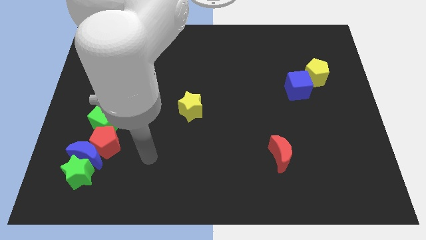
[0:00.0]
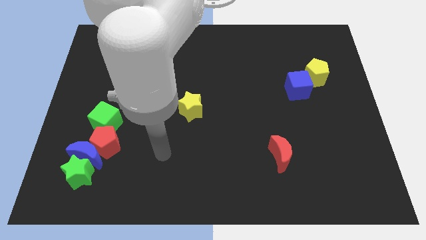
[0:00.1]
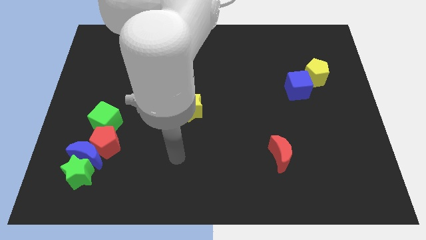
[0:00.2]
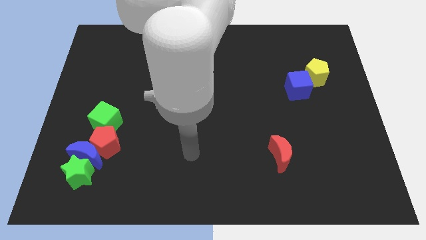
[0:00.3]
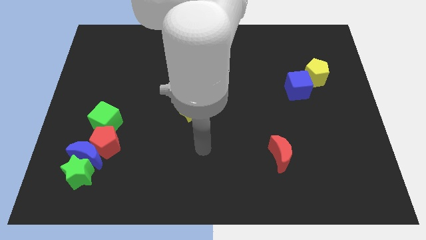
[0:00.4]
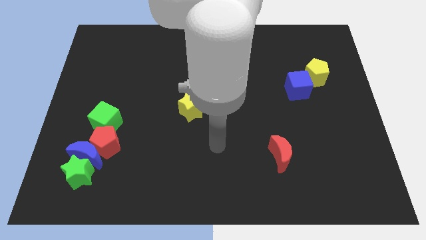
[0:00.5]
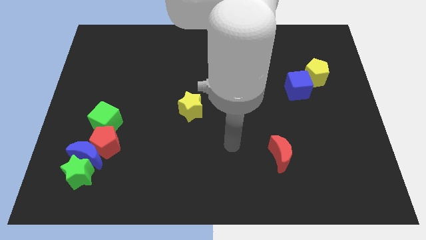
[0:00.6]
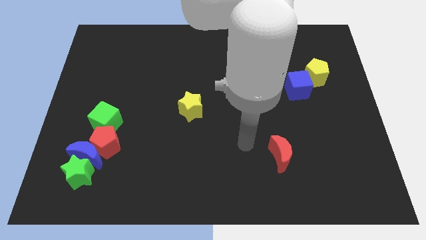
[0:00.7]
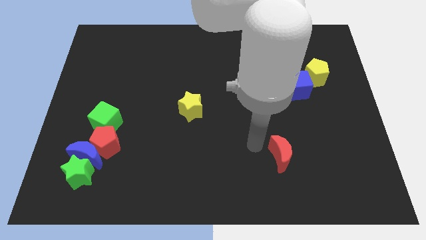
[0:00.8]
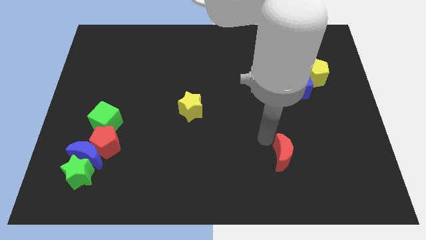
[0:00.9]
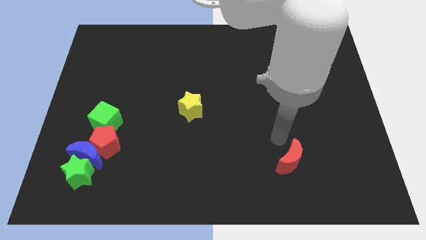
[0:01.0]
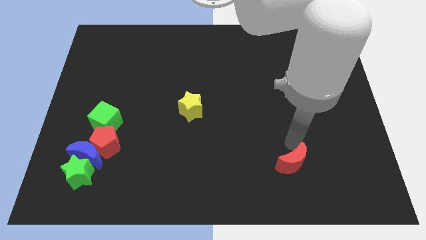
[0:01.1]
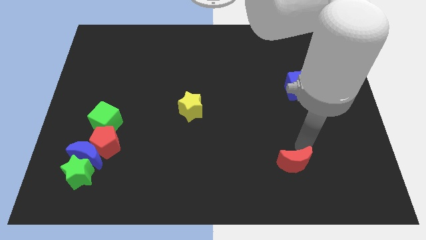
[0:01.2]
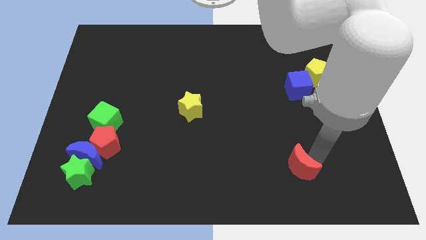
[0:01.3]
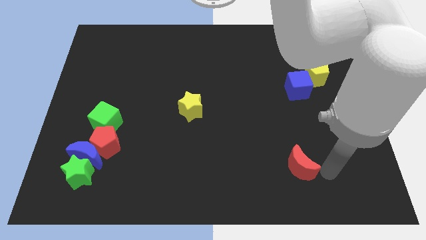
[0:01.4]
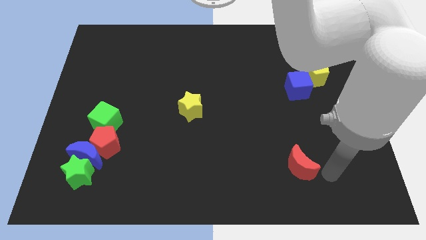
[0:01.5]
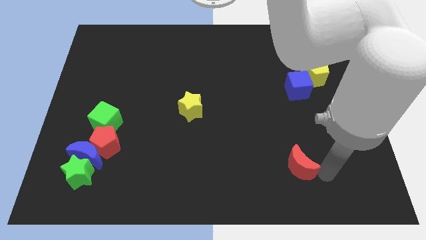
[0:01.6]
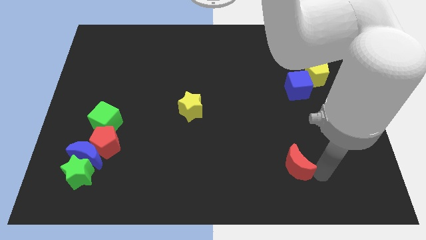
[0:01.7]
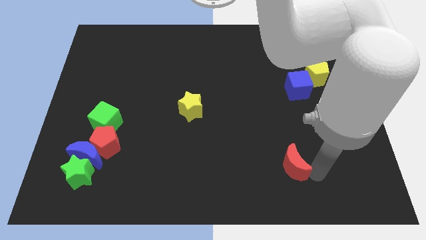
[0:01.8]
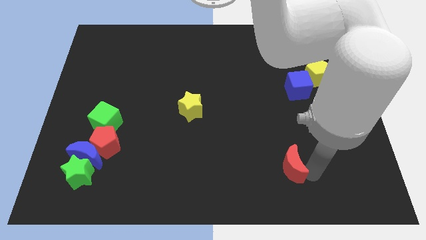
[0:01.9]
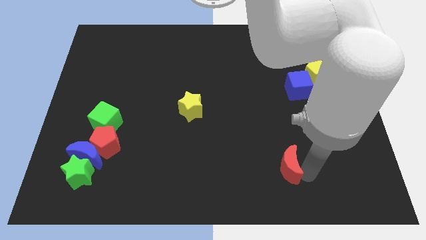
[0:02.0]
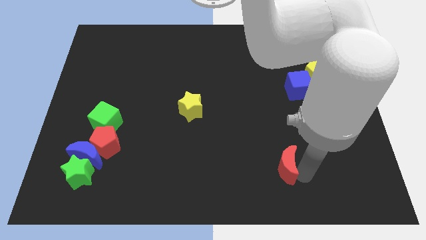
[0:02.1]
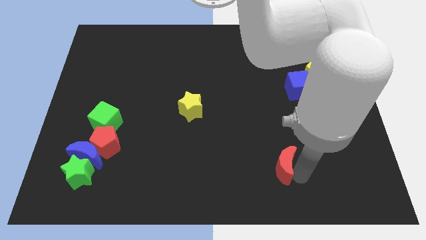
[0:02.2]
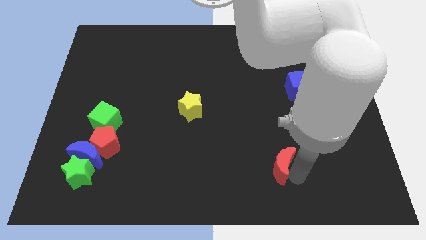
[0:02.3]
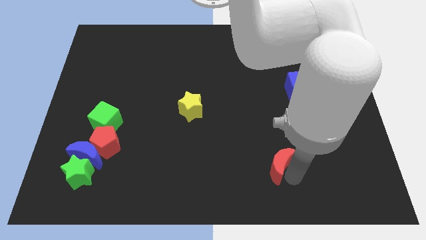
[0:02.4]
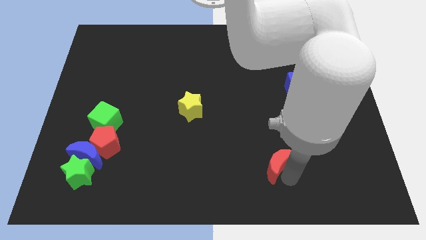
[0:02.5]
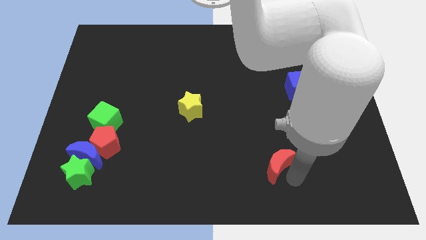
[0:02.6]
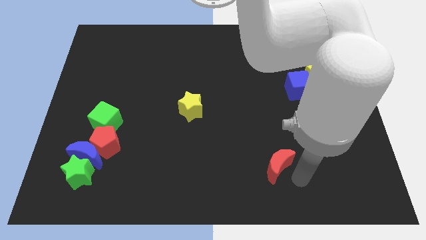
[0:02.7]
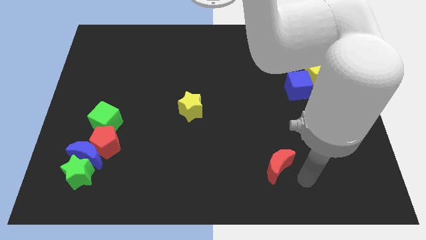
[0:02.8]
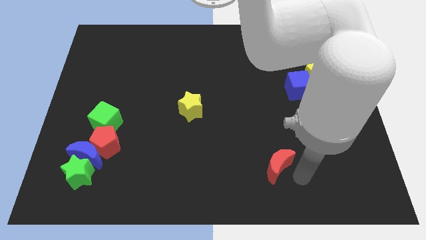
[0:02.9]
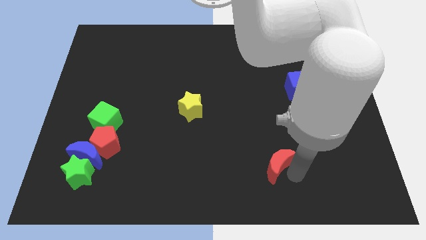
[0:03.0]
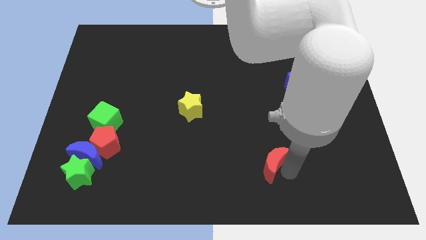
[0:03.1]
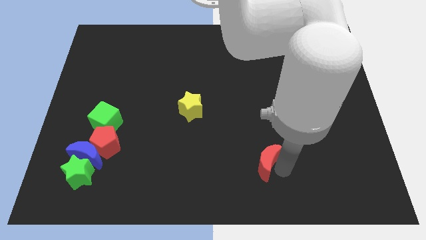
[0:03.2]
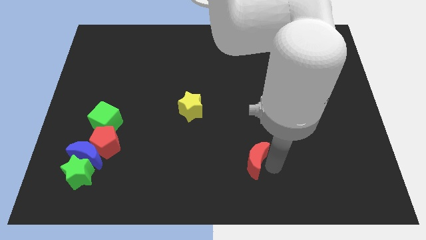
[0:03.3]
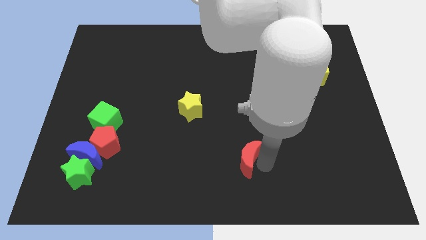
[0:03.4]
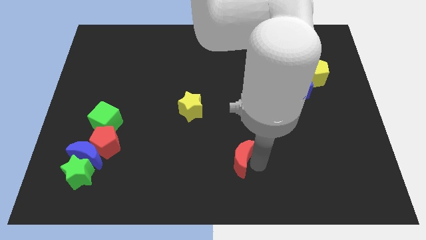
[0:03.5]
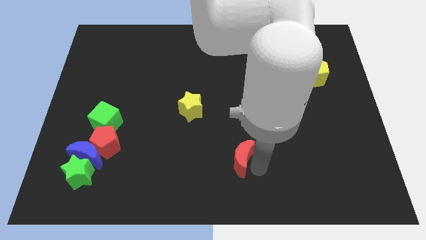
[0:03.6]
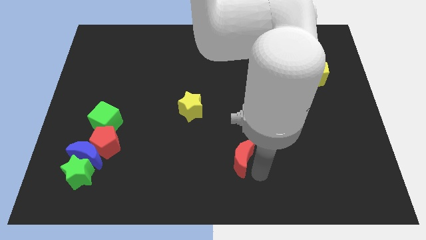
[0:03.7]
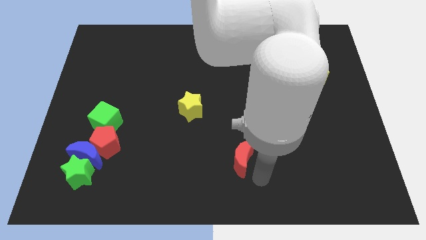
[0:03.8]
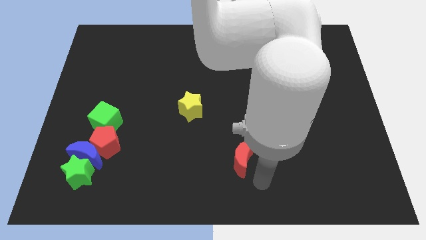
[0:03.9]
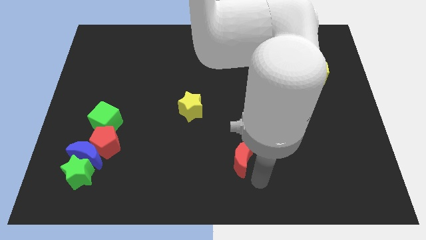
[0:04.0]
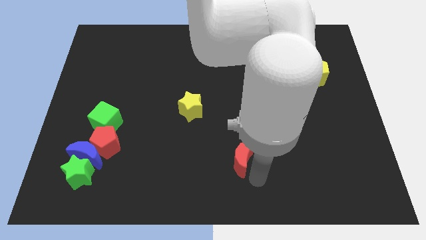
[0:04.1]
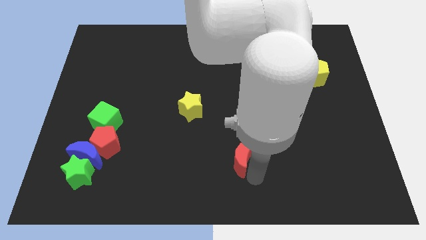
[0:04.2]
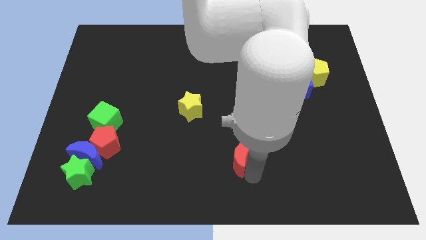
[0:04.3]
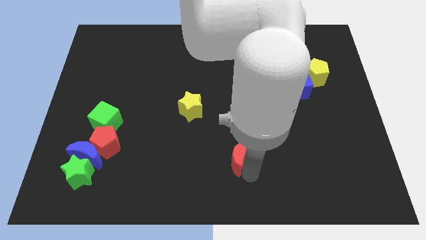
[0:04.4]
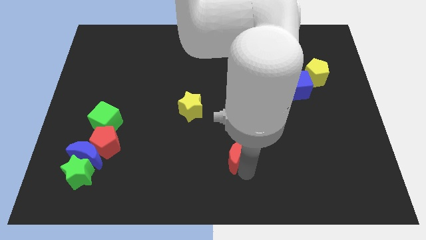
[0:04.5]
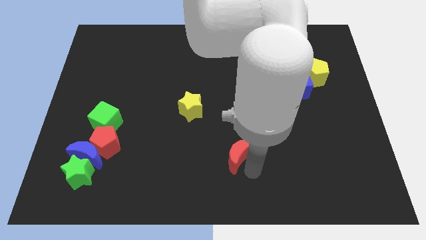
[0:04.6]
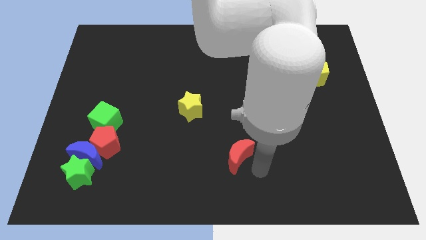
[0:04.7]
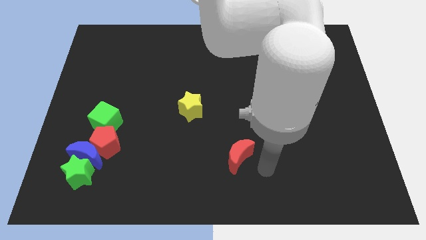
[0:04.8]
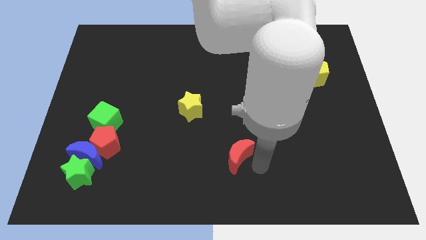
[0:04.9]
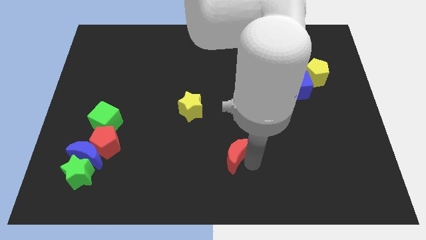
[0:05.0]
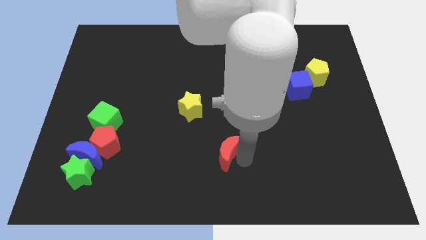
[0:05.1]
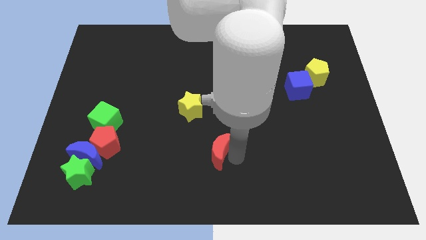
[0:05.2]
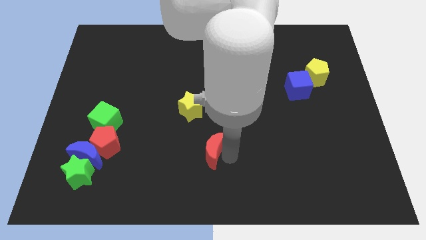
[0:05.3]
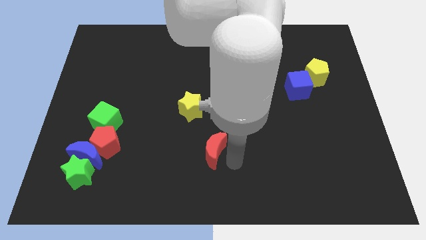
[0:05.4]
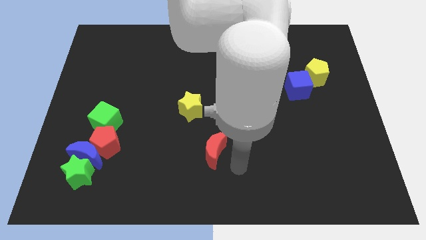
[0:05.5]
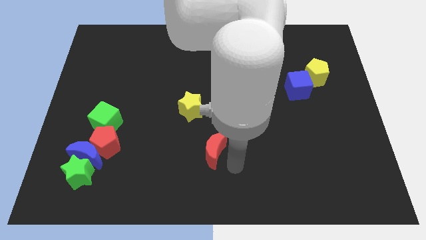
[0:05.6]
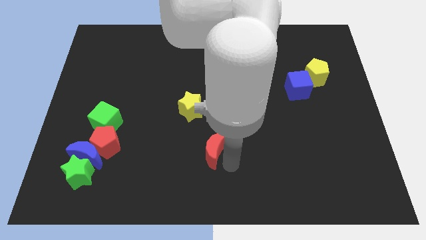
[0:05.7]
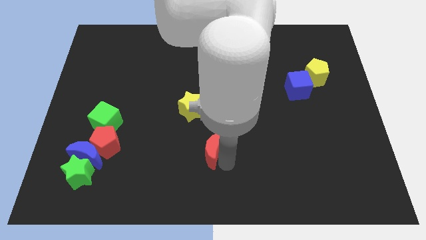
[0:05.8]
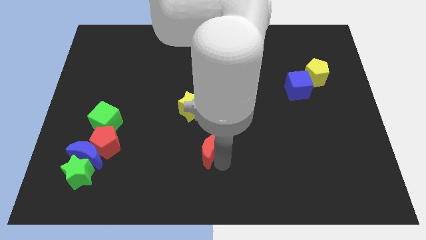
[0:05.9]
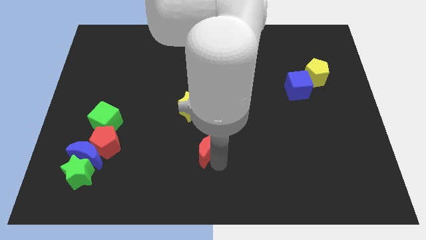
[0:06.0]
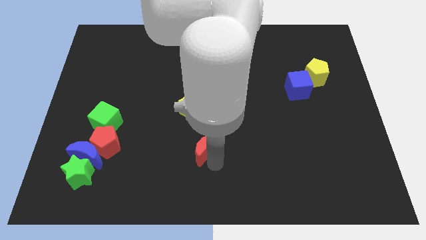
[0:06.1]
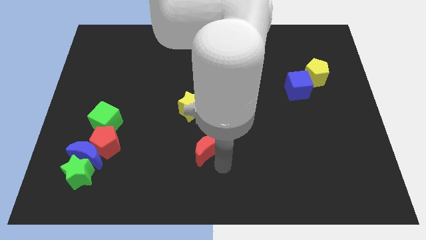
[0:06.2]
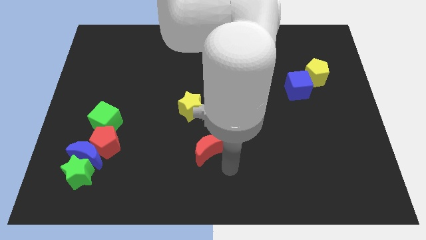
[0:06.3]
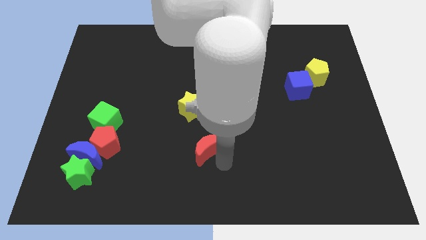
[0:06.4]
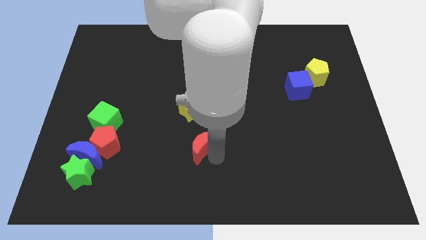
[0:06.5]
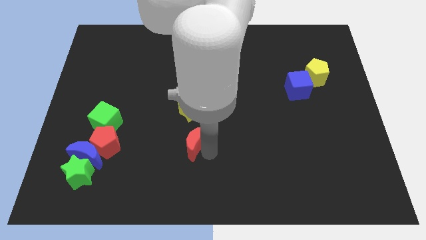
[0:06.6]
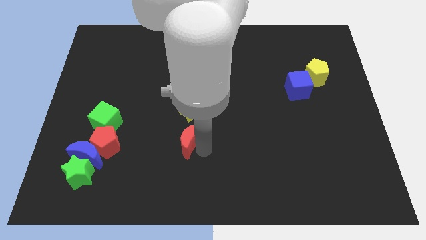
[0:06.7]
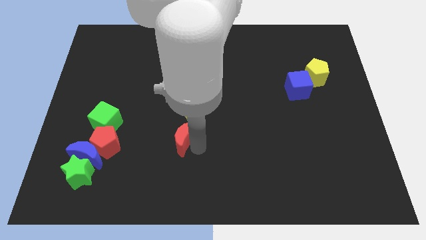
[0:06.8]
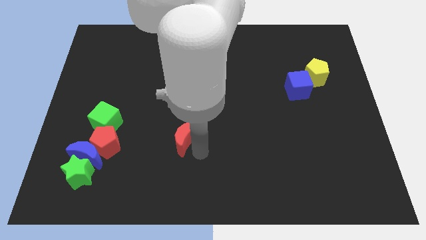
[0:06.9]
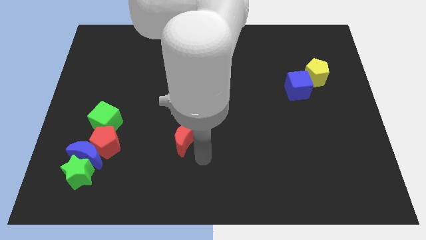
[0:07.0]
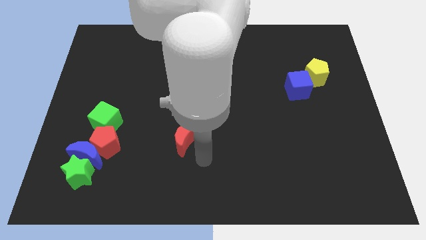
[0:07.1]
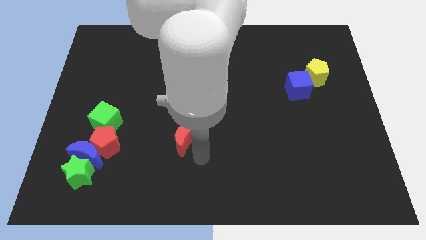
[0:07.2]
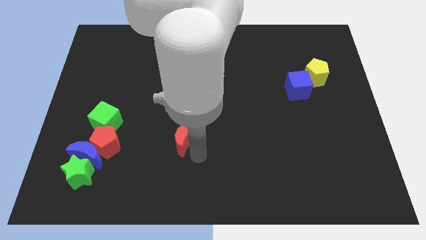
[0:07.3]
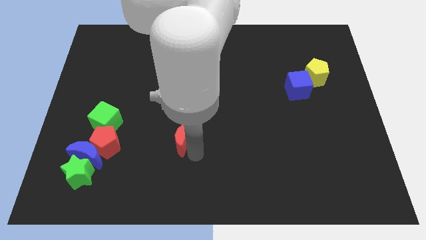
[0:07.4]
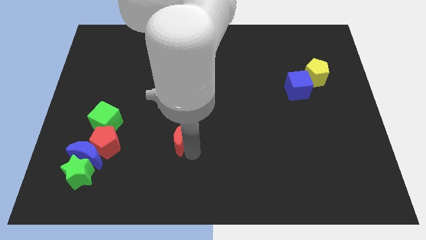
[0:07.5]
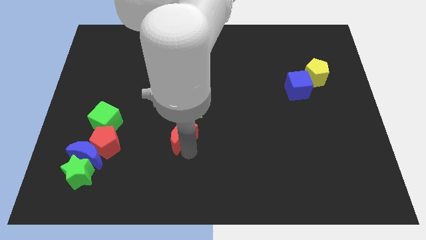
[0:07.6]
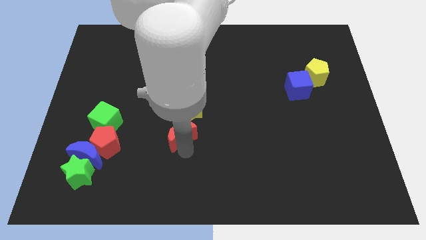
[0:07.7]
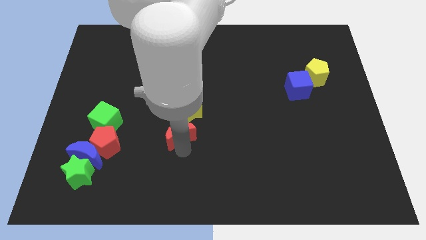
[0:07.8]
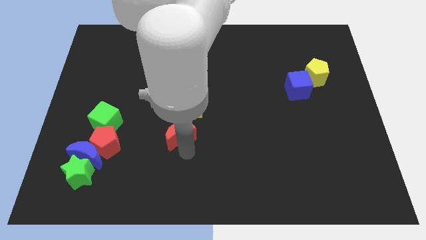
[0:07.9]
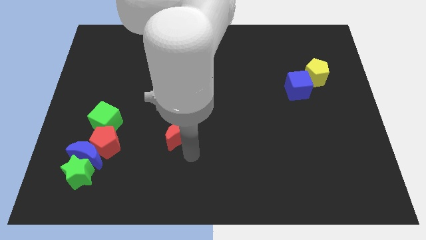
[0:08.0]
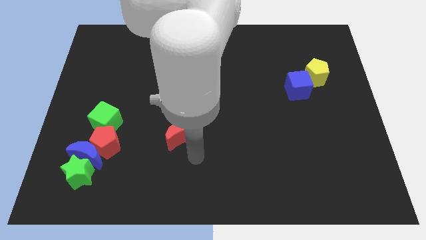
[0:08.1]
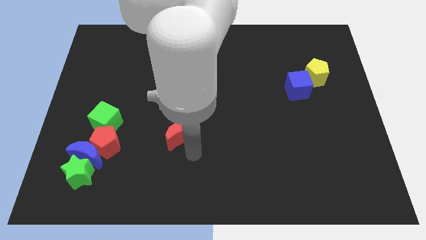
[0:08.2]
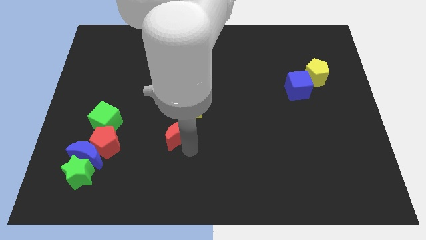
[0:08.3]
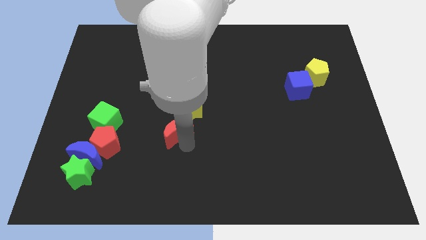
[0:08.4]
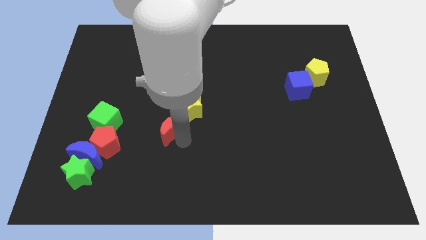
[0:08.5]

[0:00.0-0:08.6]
push the red moon right of the green cube
